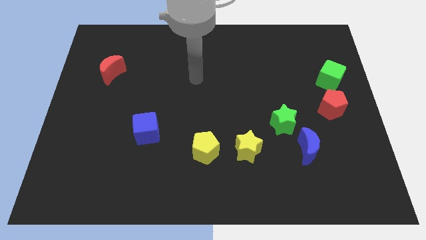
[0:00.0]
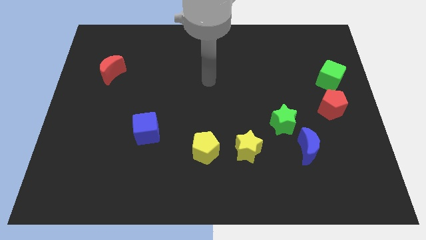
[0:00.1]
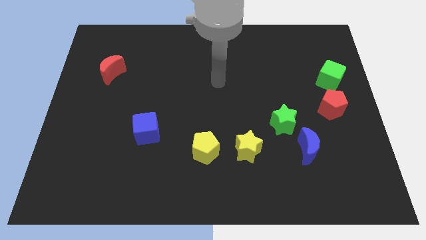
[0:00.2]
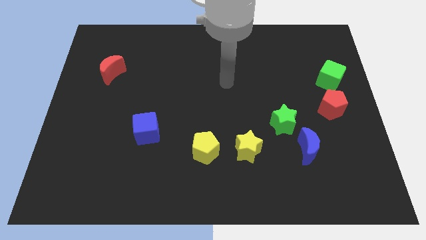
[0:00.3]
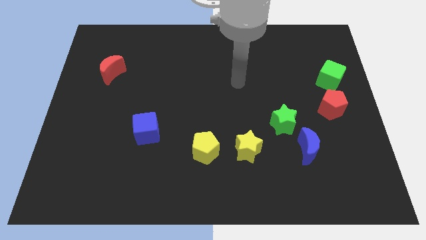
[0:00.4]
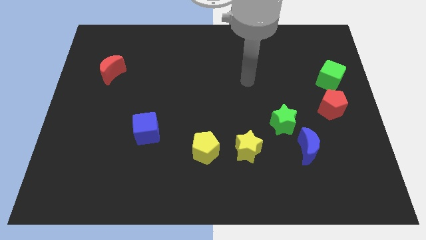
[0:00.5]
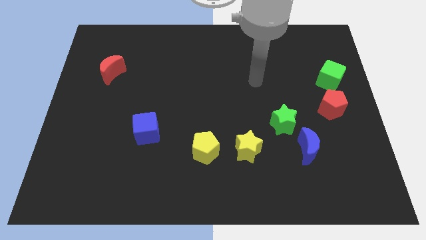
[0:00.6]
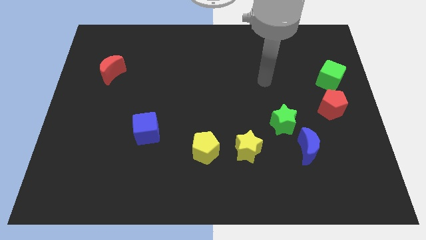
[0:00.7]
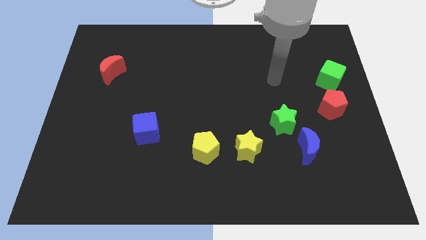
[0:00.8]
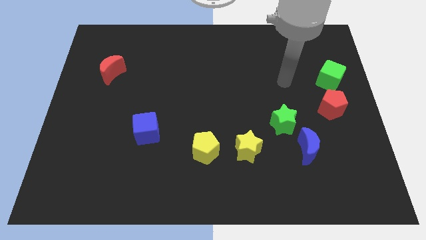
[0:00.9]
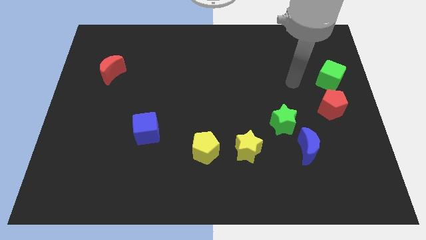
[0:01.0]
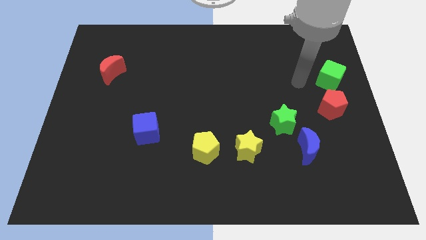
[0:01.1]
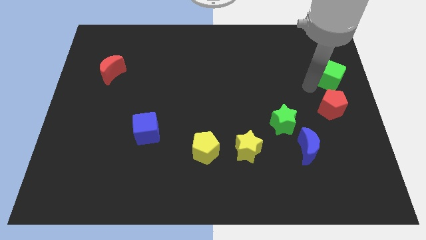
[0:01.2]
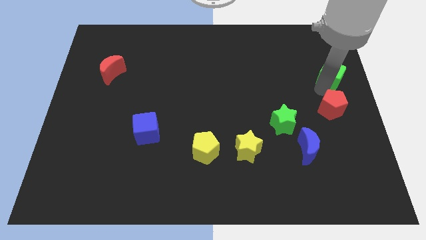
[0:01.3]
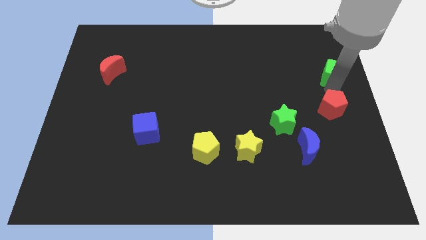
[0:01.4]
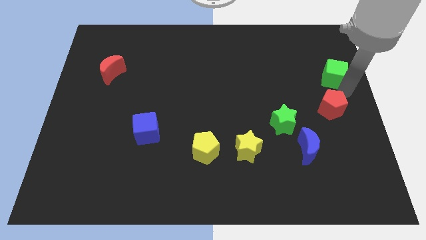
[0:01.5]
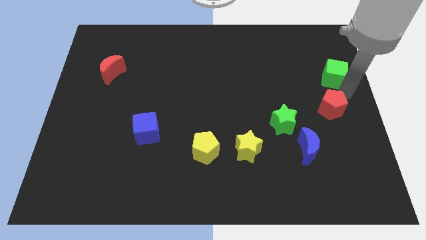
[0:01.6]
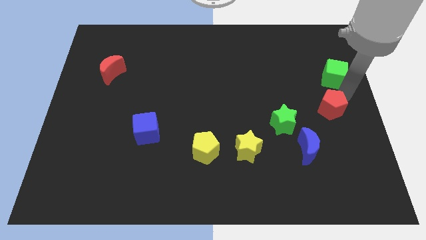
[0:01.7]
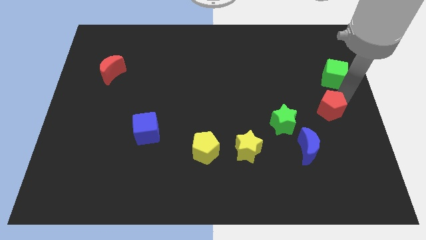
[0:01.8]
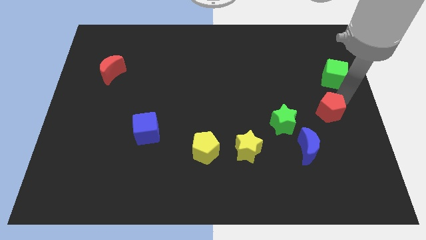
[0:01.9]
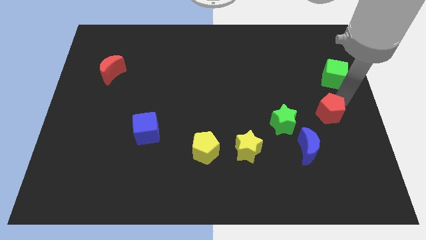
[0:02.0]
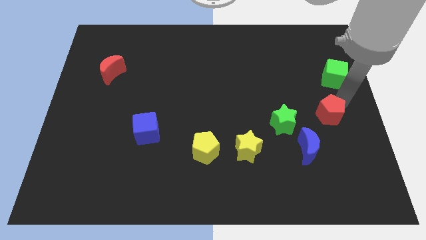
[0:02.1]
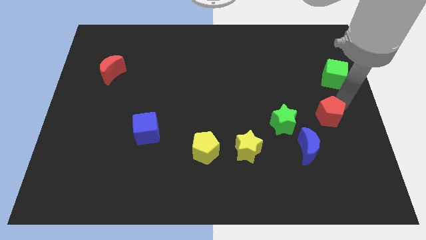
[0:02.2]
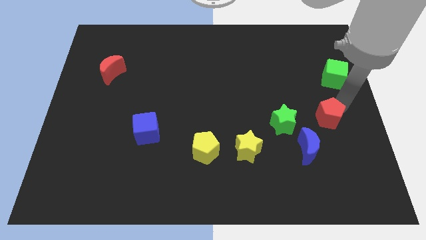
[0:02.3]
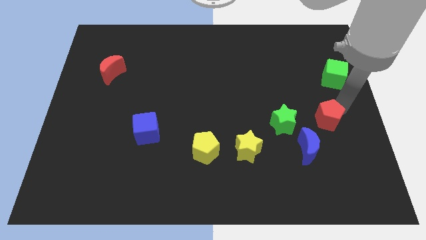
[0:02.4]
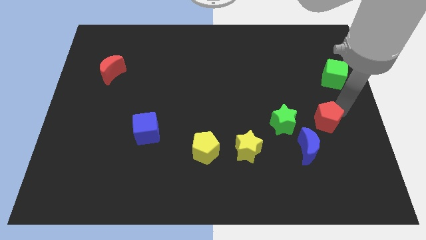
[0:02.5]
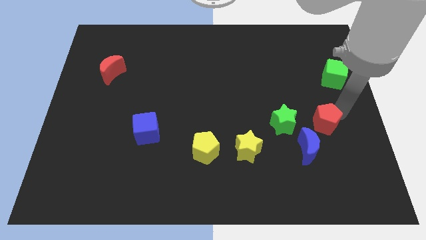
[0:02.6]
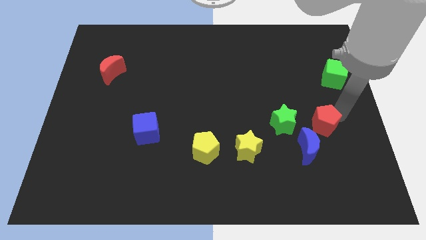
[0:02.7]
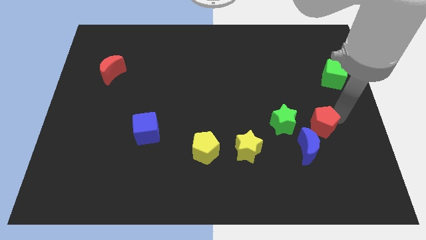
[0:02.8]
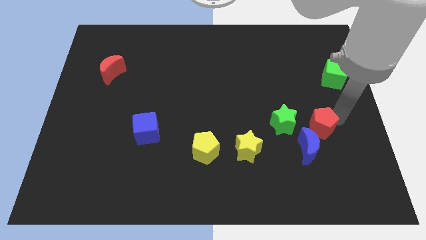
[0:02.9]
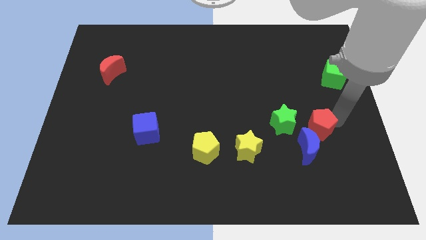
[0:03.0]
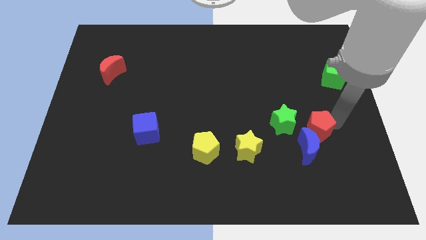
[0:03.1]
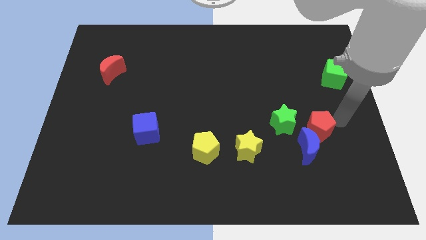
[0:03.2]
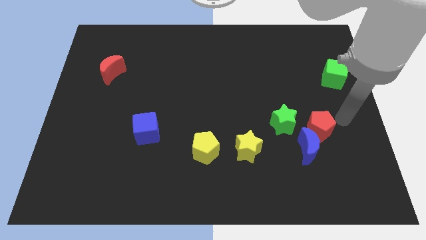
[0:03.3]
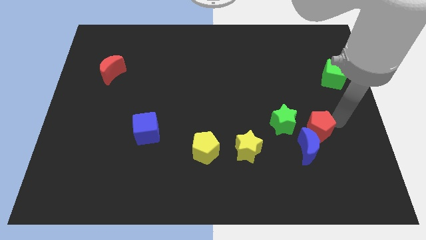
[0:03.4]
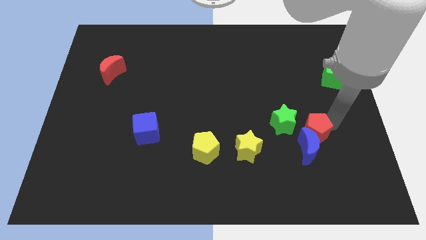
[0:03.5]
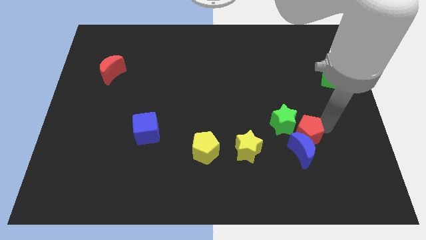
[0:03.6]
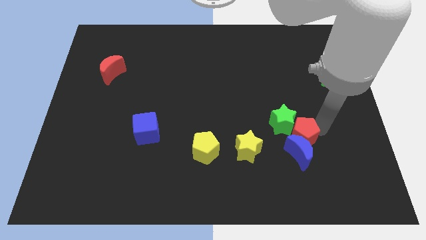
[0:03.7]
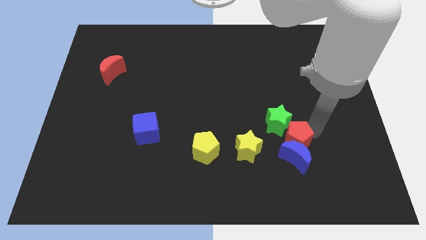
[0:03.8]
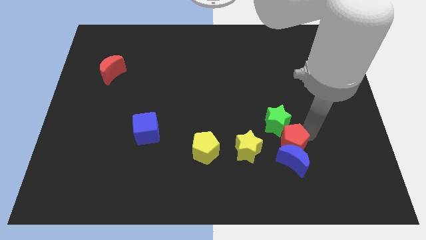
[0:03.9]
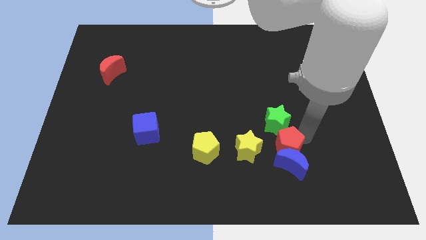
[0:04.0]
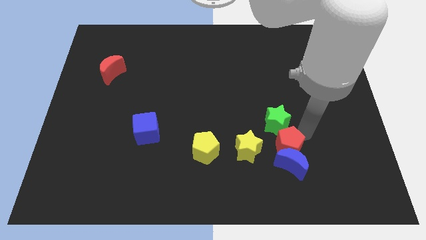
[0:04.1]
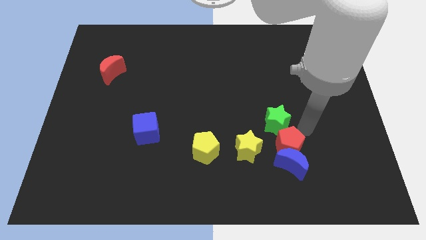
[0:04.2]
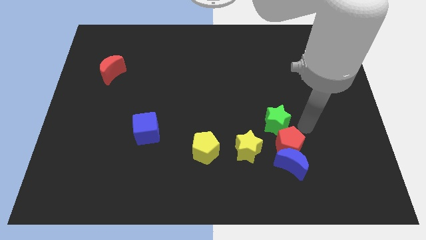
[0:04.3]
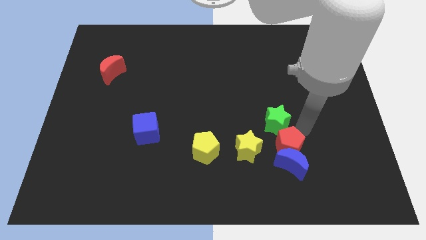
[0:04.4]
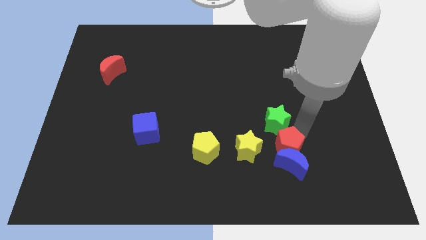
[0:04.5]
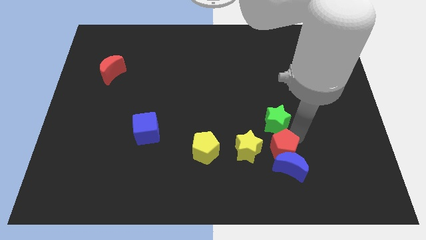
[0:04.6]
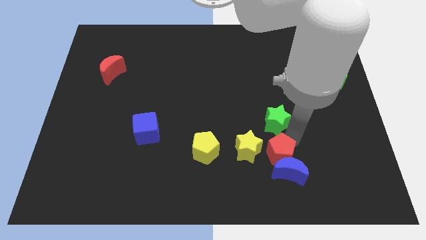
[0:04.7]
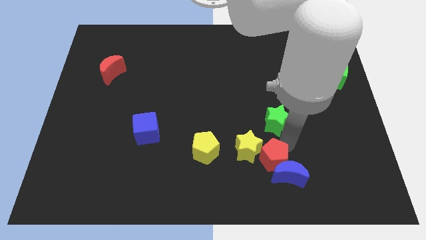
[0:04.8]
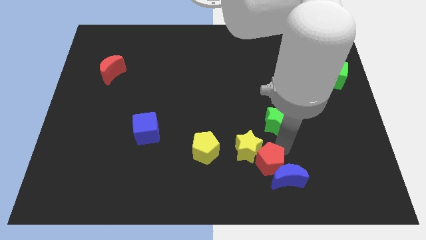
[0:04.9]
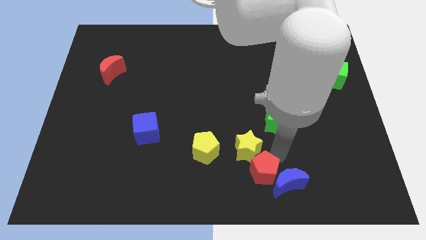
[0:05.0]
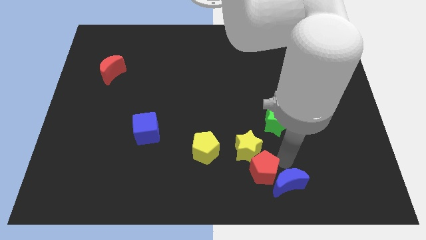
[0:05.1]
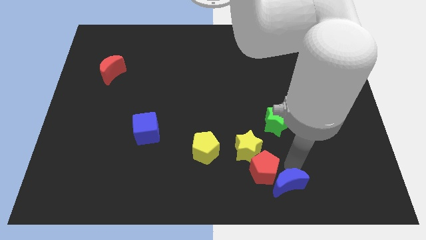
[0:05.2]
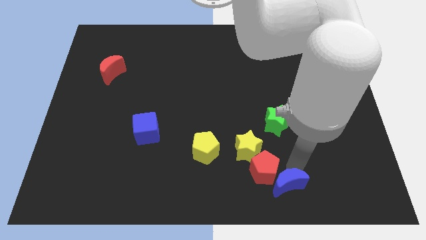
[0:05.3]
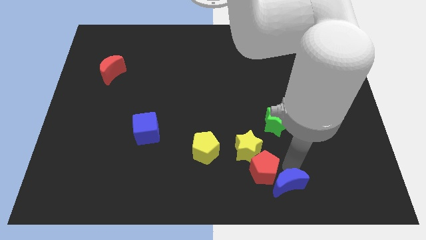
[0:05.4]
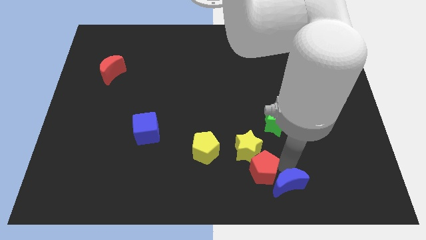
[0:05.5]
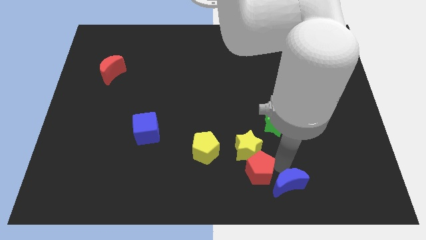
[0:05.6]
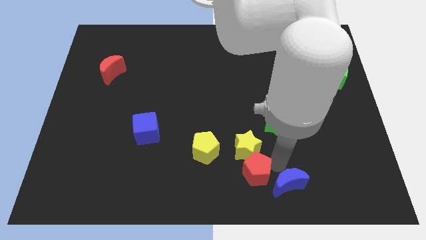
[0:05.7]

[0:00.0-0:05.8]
slide the red pentagon to the bottom left of the yellow star

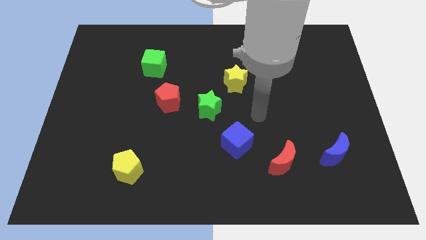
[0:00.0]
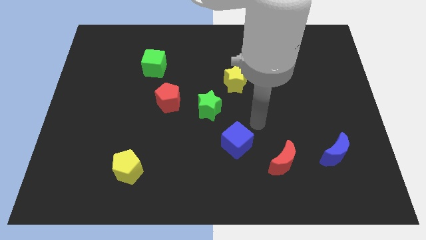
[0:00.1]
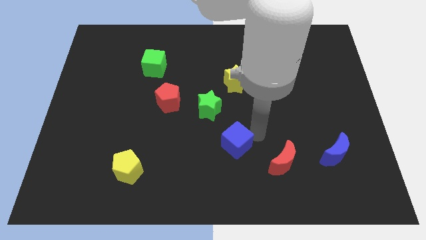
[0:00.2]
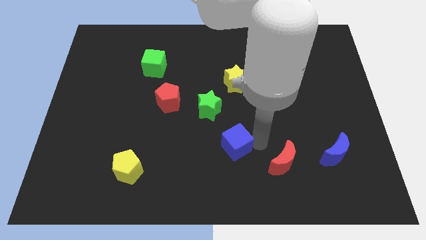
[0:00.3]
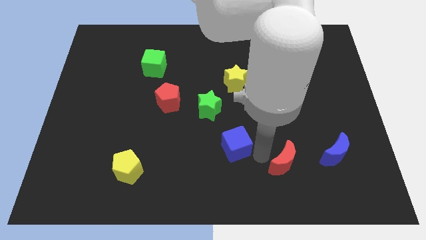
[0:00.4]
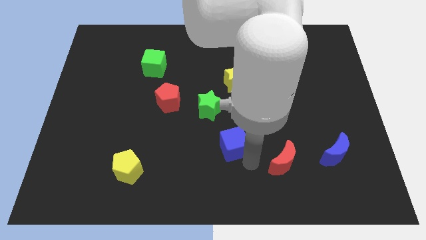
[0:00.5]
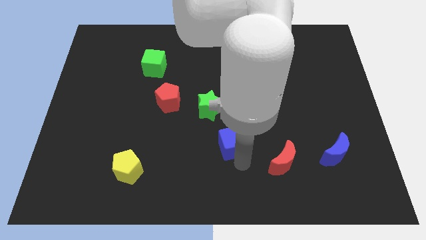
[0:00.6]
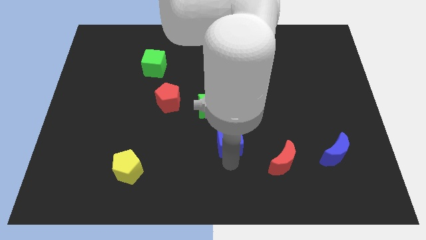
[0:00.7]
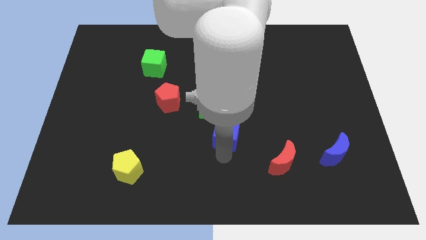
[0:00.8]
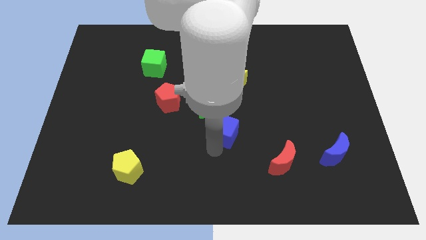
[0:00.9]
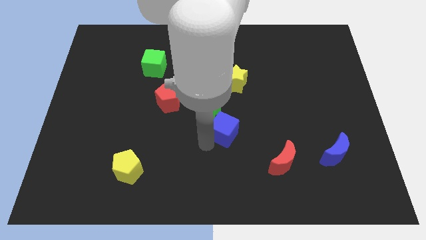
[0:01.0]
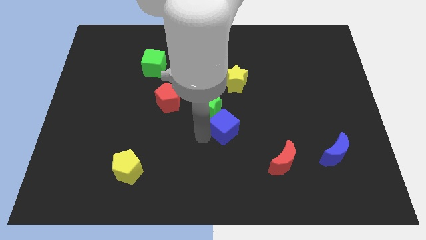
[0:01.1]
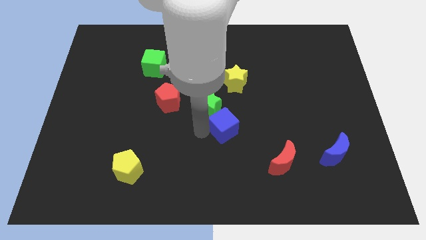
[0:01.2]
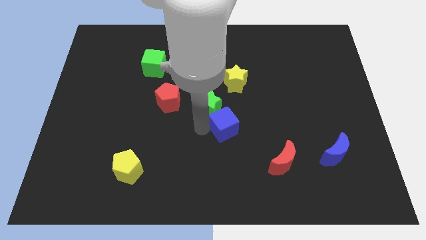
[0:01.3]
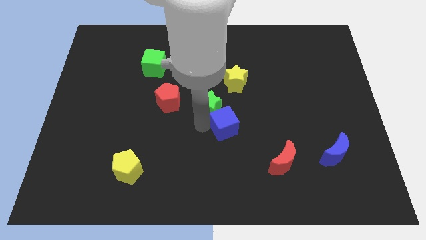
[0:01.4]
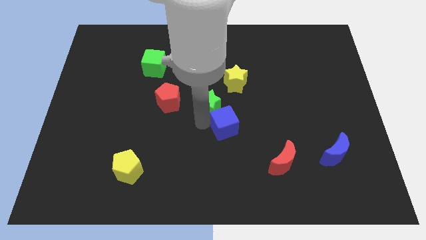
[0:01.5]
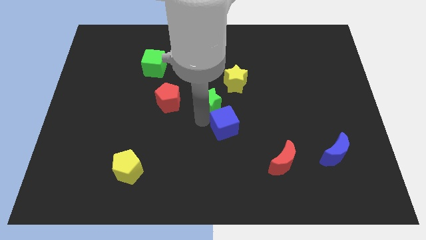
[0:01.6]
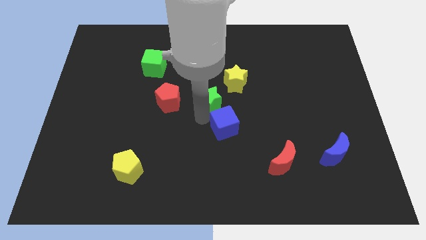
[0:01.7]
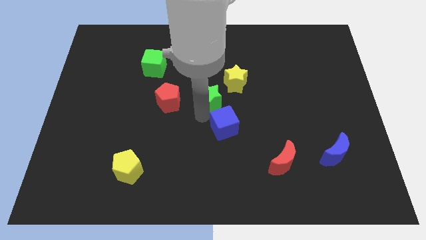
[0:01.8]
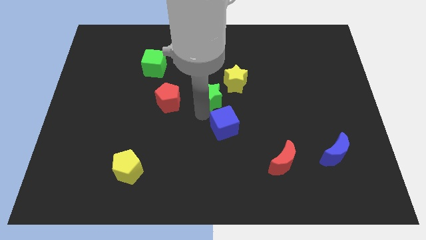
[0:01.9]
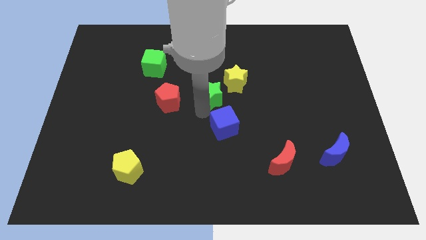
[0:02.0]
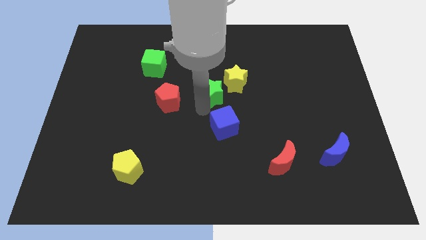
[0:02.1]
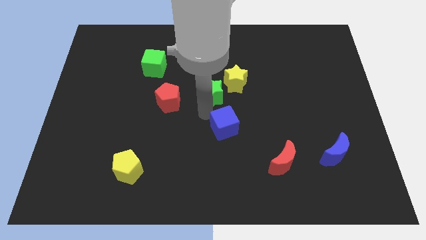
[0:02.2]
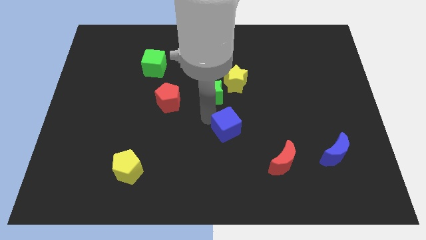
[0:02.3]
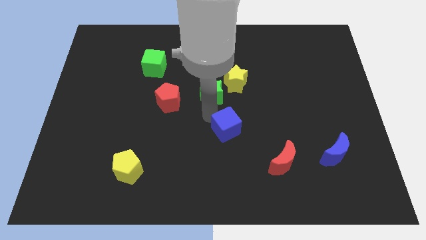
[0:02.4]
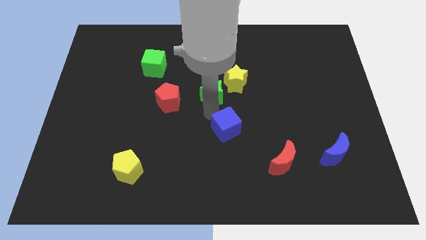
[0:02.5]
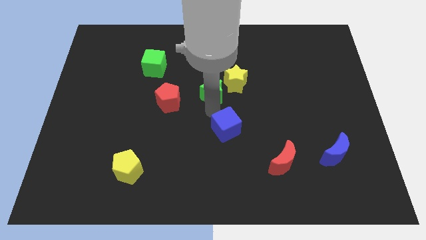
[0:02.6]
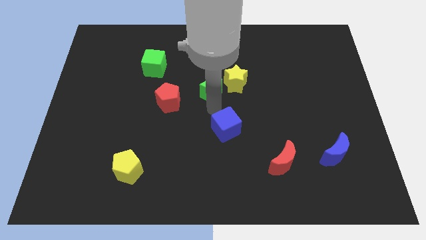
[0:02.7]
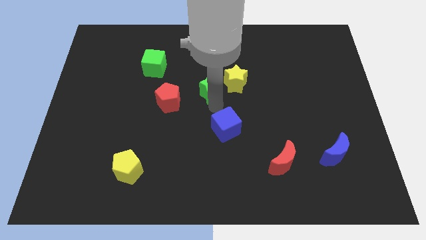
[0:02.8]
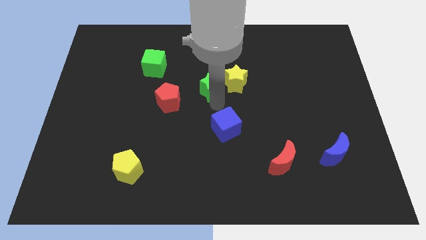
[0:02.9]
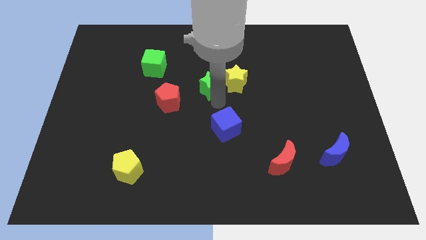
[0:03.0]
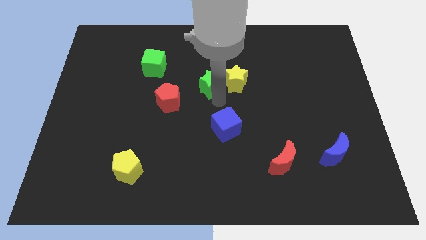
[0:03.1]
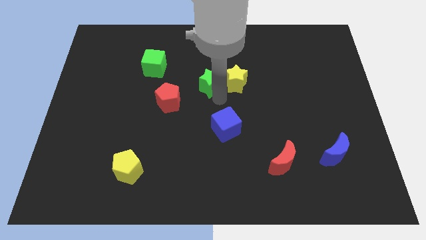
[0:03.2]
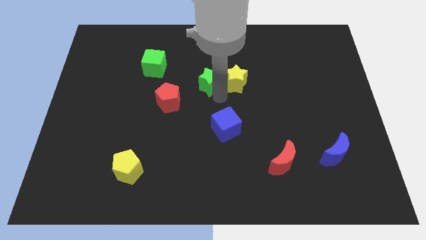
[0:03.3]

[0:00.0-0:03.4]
push the green star diagonally up and to the left of the yellow star
